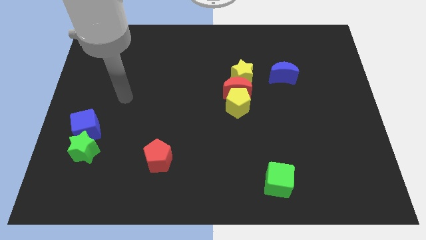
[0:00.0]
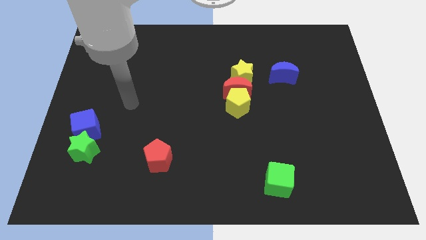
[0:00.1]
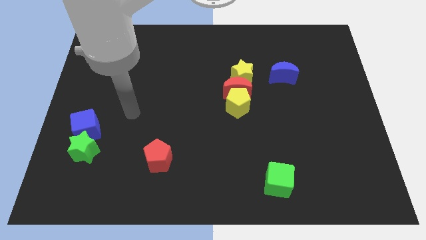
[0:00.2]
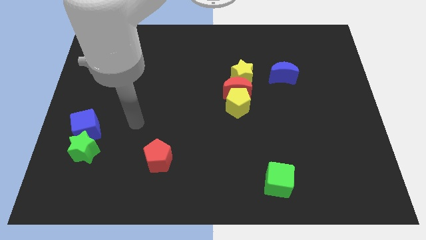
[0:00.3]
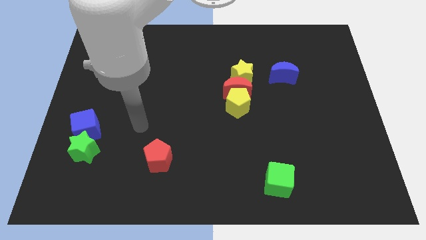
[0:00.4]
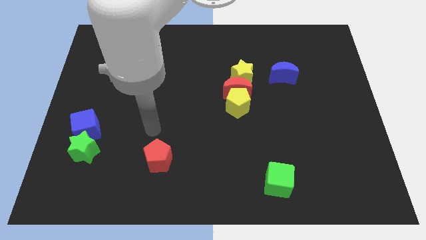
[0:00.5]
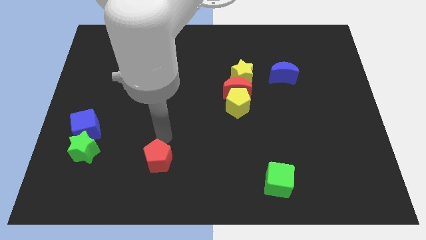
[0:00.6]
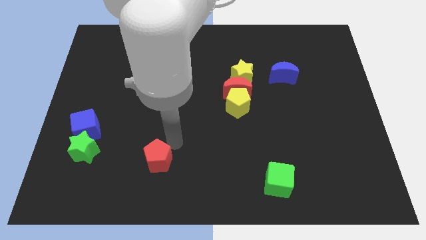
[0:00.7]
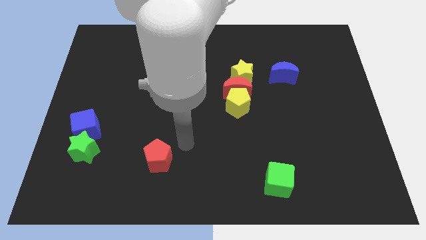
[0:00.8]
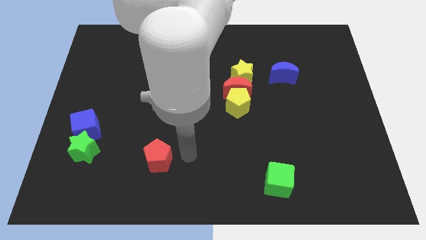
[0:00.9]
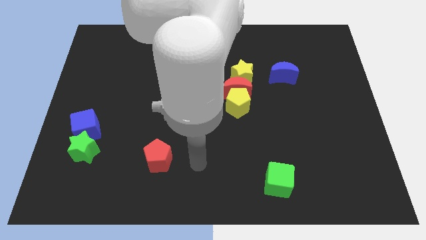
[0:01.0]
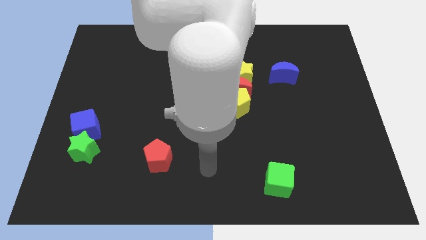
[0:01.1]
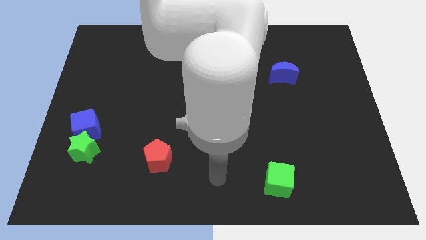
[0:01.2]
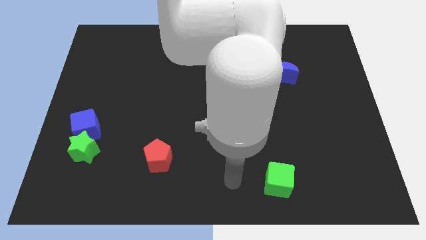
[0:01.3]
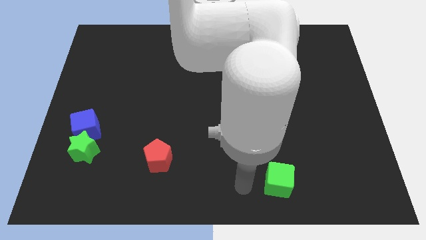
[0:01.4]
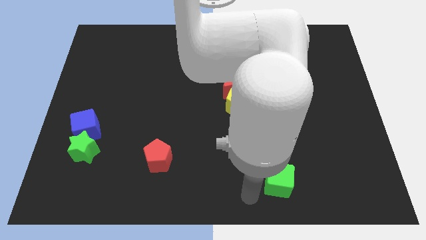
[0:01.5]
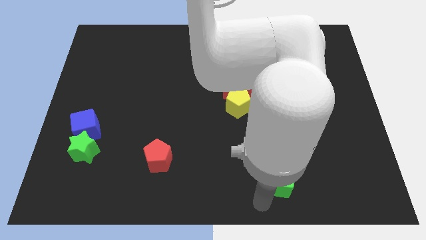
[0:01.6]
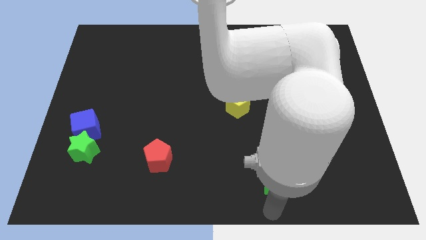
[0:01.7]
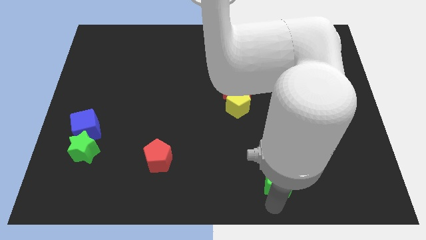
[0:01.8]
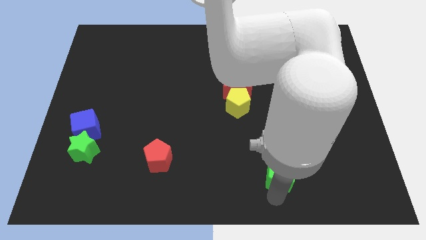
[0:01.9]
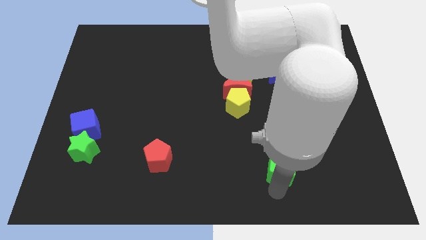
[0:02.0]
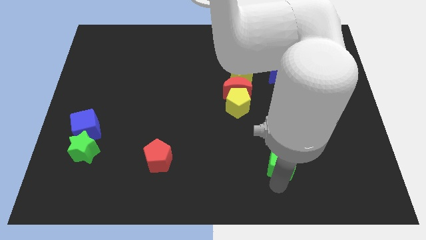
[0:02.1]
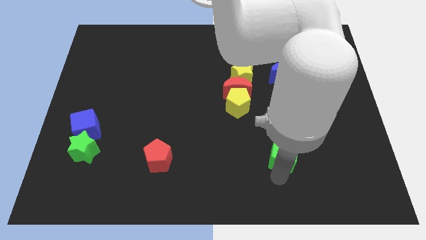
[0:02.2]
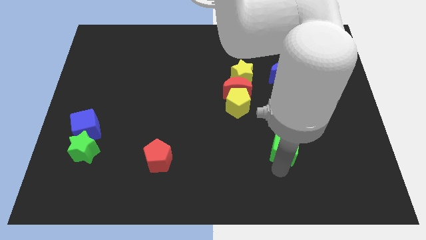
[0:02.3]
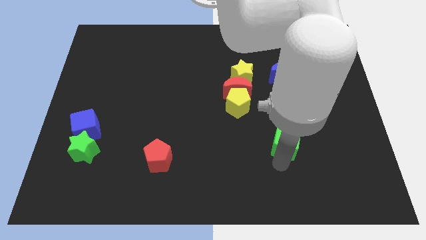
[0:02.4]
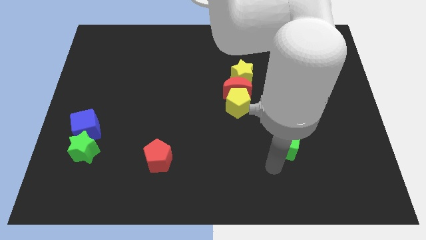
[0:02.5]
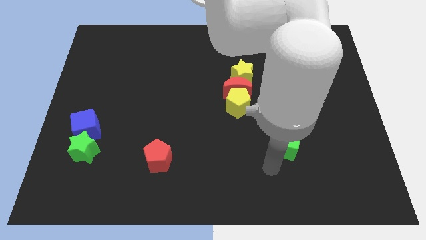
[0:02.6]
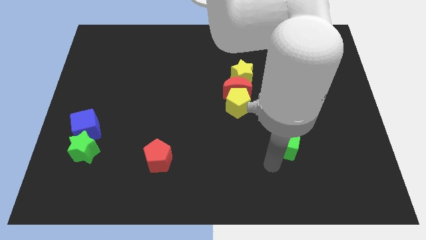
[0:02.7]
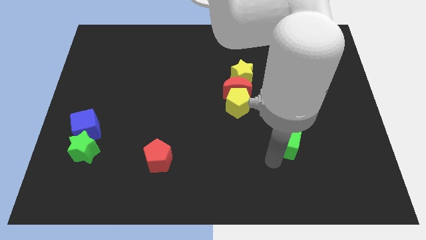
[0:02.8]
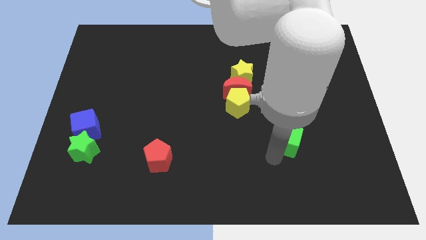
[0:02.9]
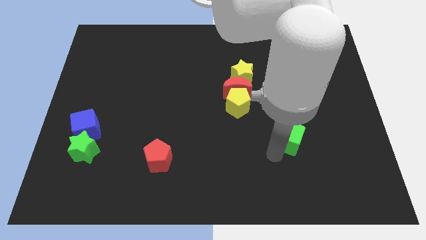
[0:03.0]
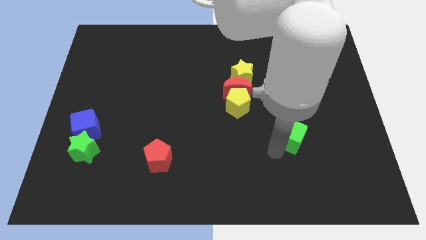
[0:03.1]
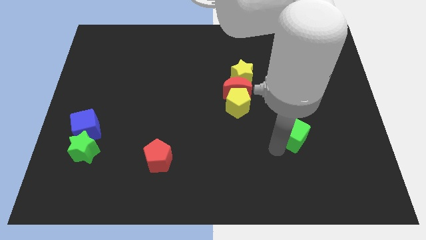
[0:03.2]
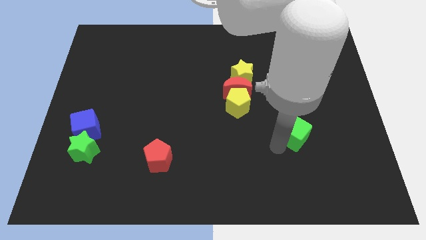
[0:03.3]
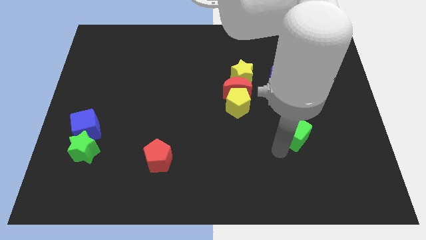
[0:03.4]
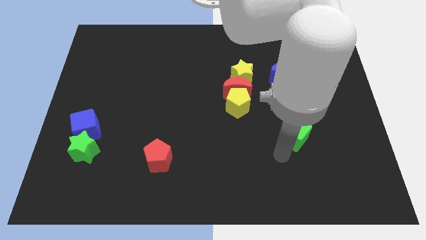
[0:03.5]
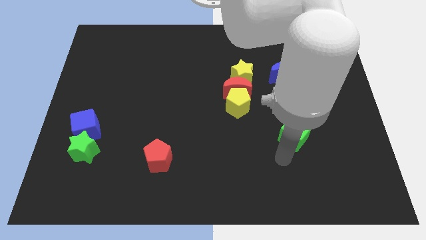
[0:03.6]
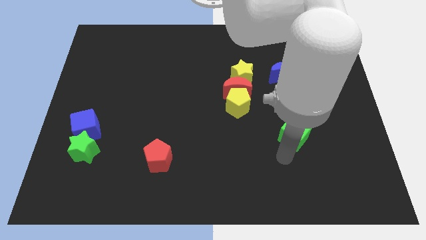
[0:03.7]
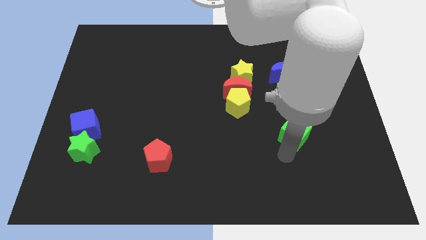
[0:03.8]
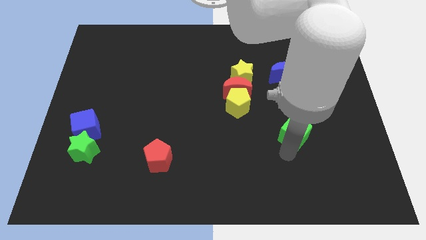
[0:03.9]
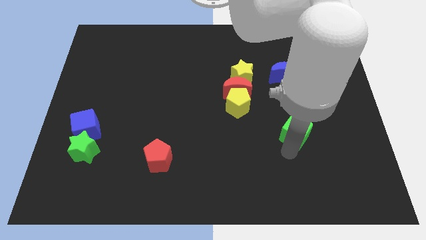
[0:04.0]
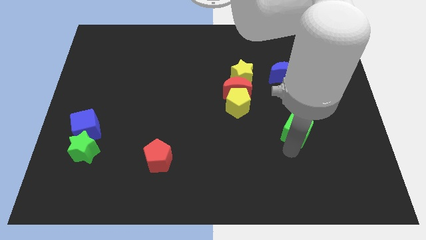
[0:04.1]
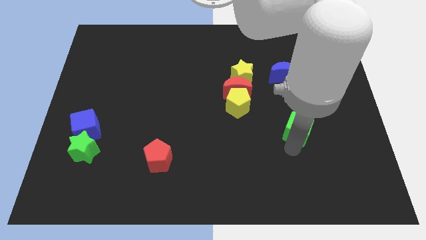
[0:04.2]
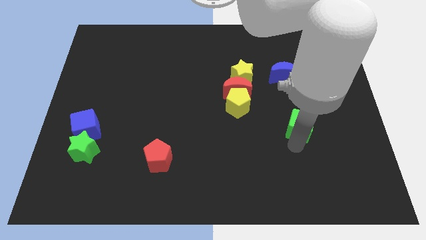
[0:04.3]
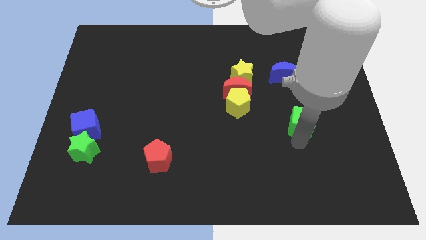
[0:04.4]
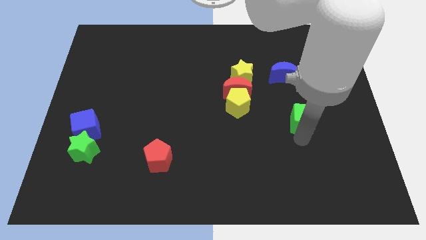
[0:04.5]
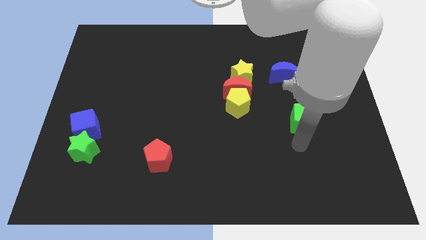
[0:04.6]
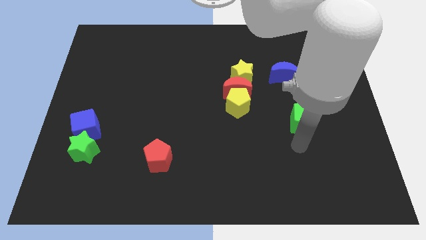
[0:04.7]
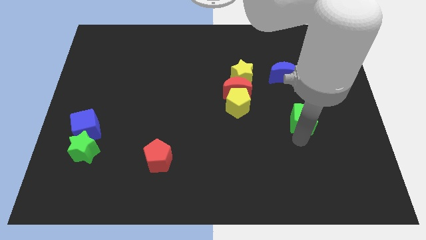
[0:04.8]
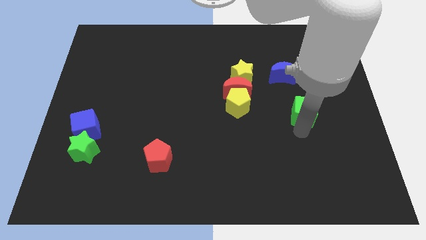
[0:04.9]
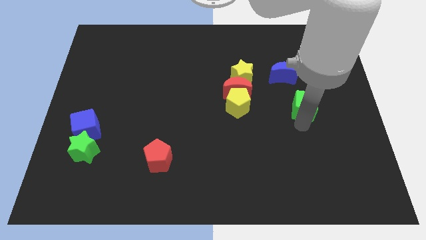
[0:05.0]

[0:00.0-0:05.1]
move the green cube to the bottom right side of the blue moon

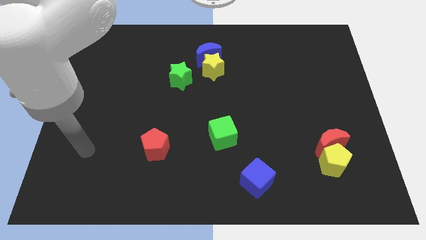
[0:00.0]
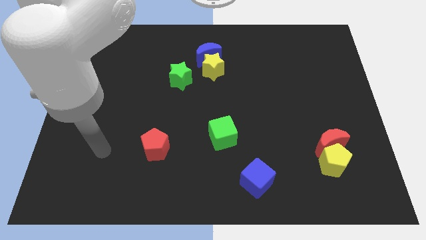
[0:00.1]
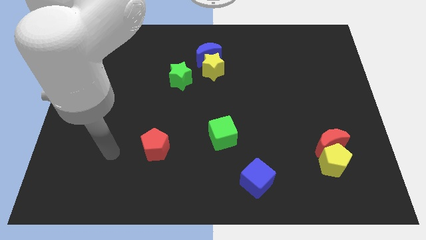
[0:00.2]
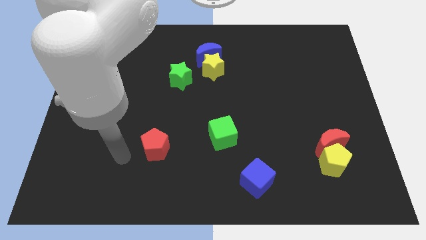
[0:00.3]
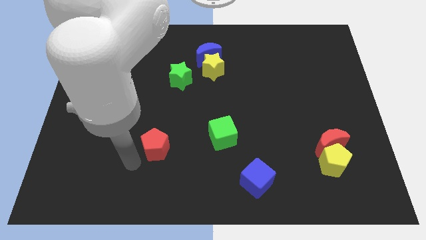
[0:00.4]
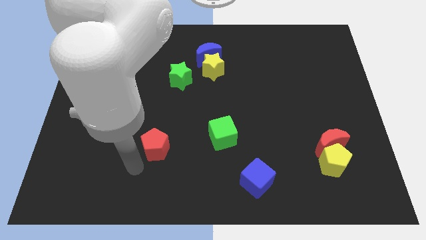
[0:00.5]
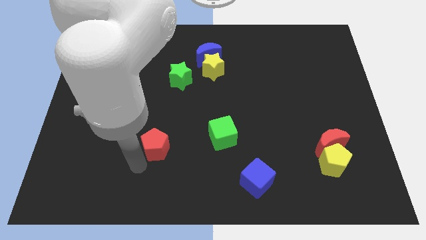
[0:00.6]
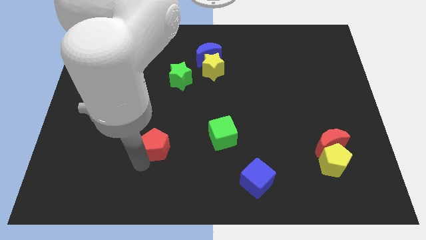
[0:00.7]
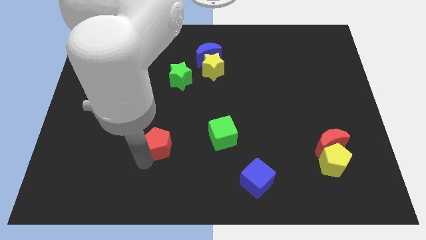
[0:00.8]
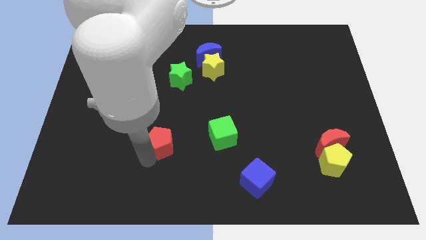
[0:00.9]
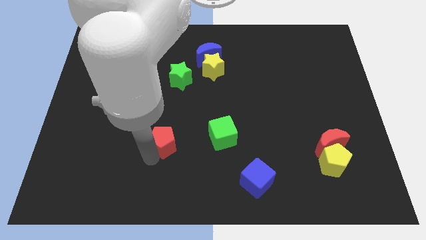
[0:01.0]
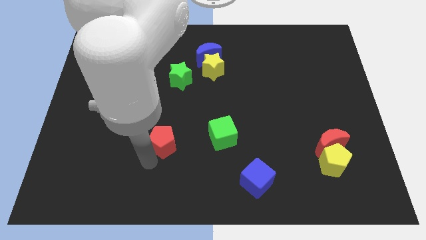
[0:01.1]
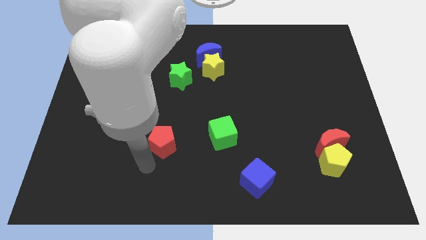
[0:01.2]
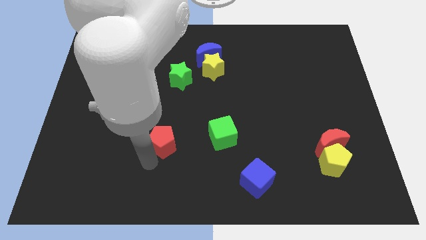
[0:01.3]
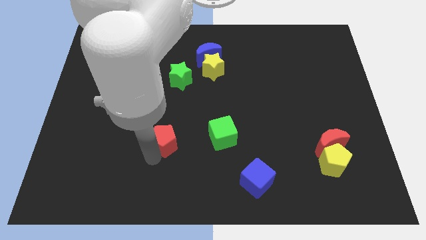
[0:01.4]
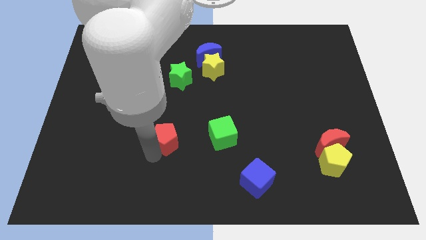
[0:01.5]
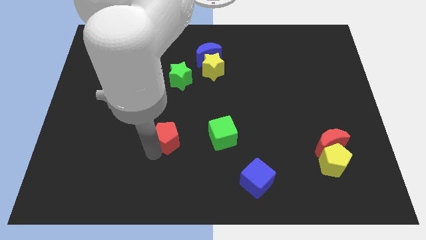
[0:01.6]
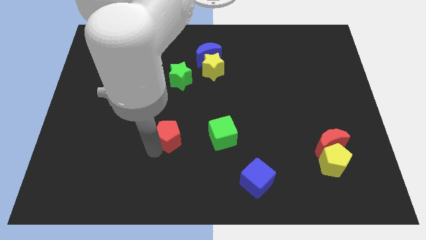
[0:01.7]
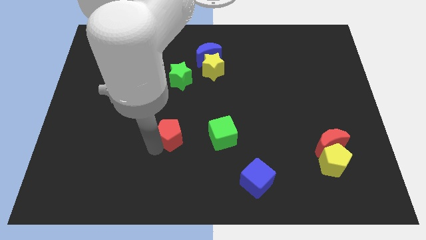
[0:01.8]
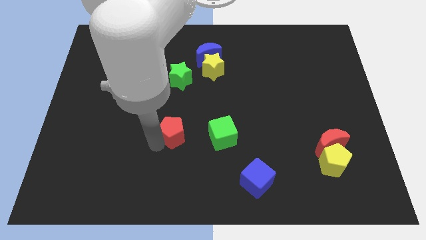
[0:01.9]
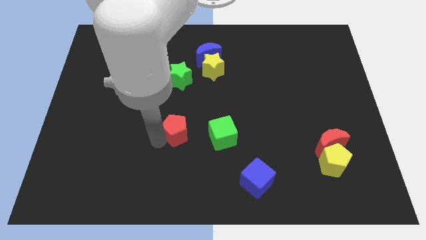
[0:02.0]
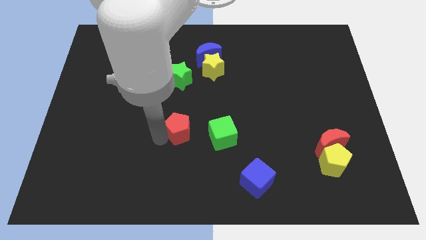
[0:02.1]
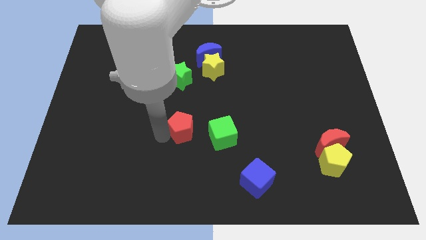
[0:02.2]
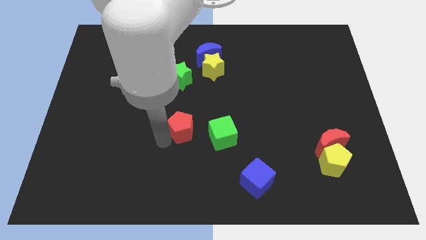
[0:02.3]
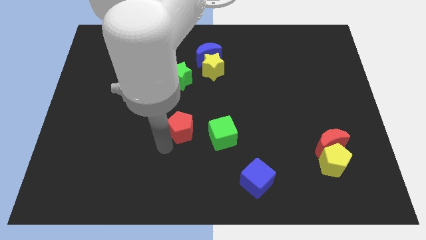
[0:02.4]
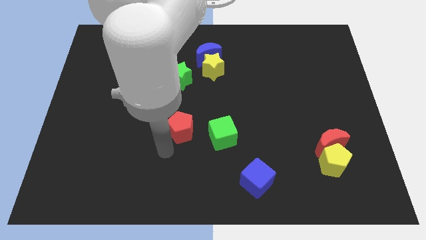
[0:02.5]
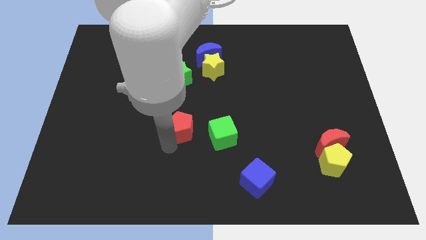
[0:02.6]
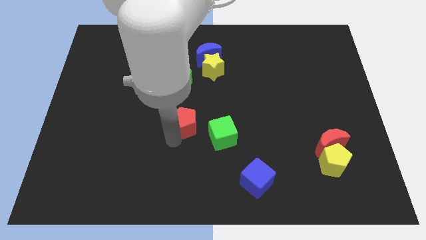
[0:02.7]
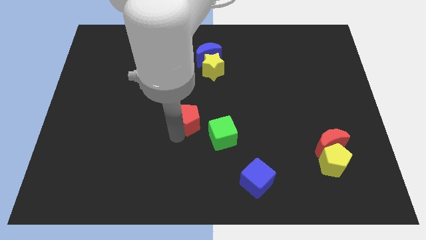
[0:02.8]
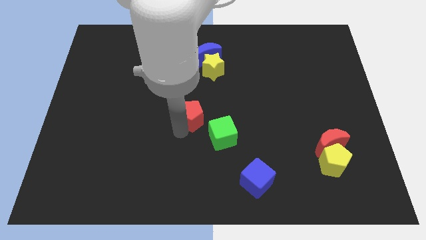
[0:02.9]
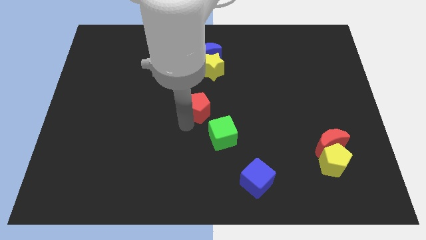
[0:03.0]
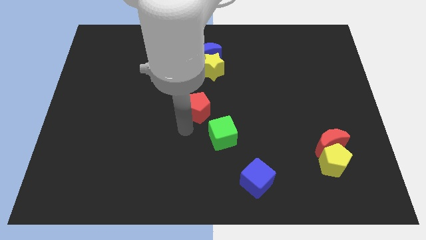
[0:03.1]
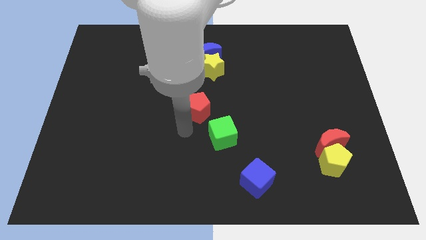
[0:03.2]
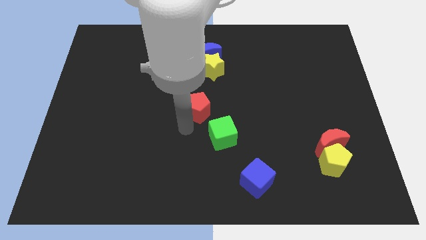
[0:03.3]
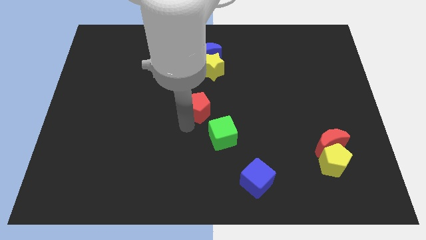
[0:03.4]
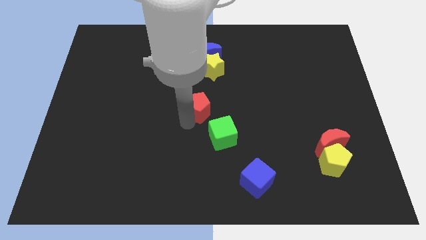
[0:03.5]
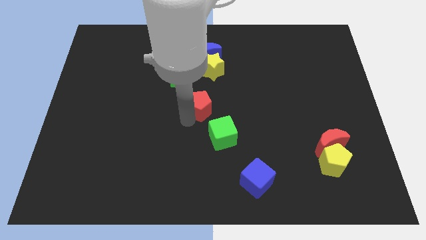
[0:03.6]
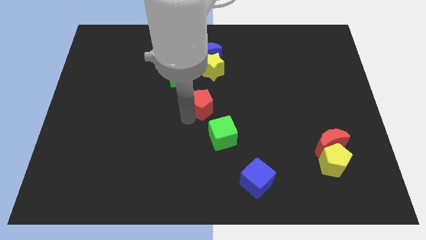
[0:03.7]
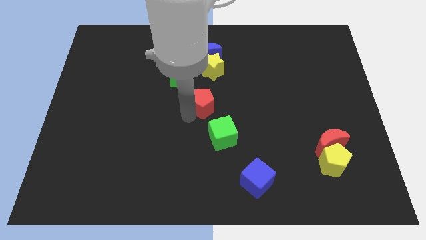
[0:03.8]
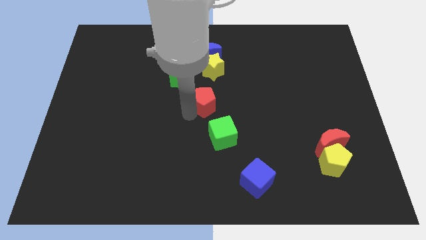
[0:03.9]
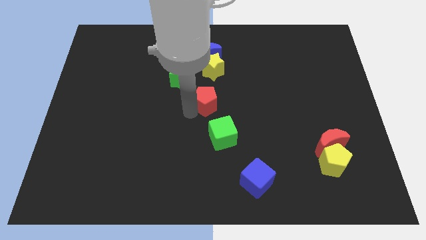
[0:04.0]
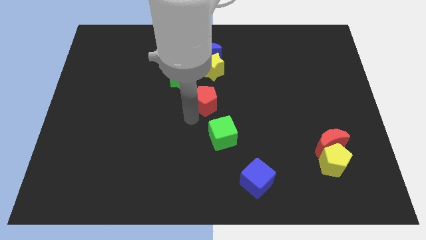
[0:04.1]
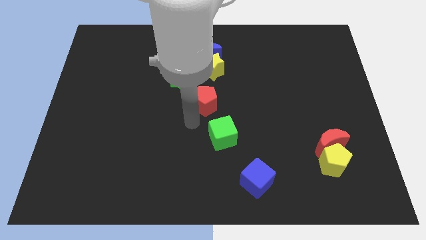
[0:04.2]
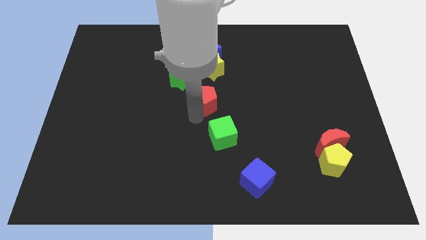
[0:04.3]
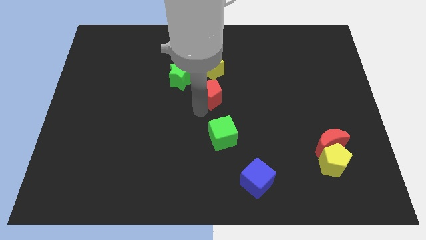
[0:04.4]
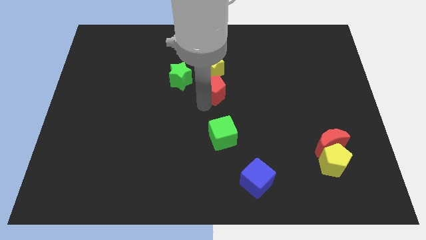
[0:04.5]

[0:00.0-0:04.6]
move the red pentagon right of the green star
